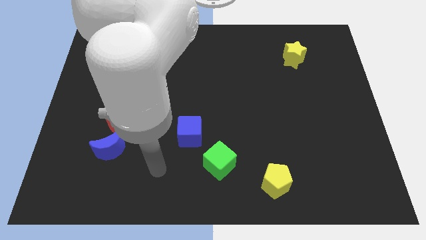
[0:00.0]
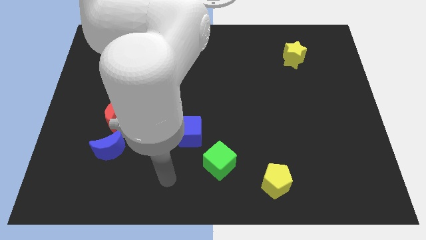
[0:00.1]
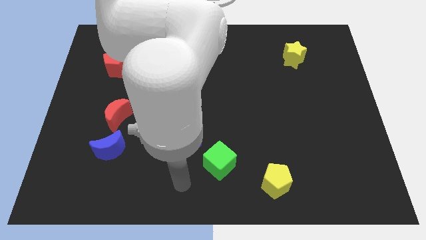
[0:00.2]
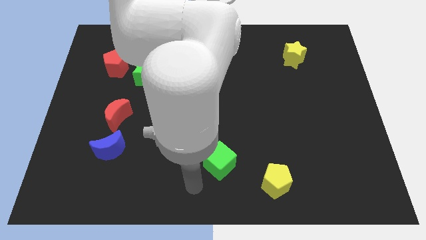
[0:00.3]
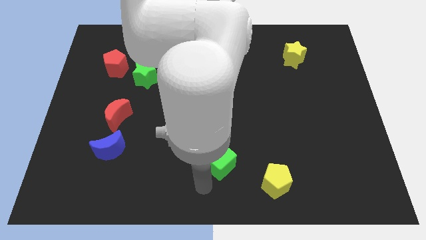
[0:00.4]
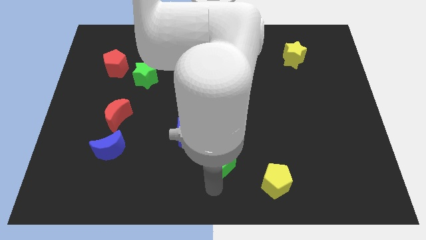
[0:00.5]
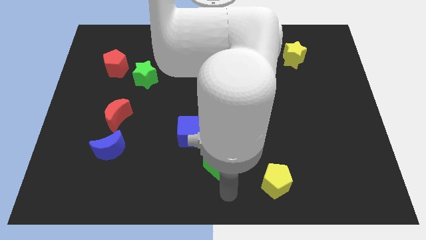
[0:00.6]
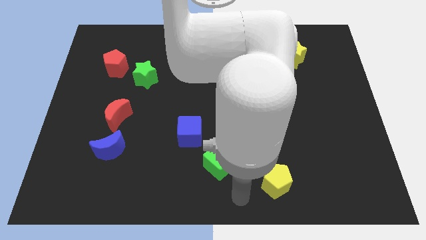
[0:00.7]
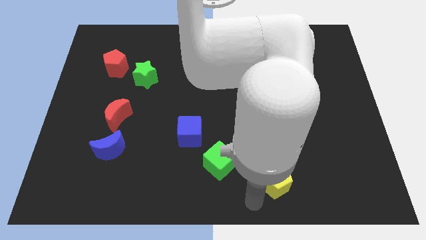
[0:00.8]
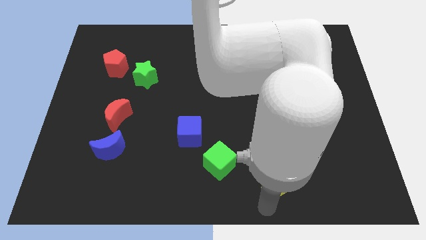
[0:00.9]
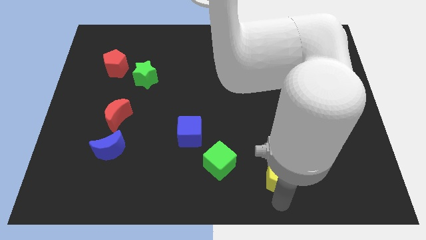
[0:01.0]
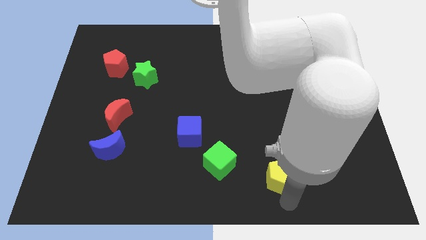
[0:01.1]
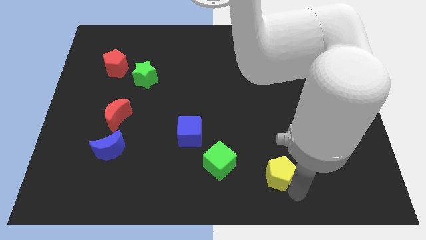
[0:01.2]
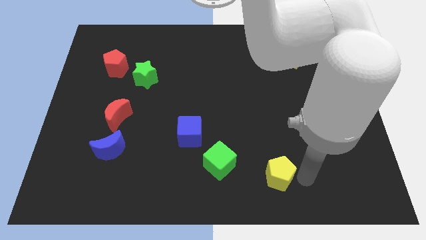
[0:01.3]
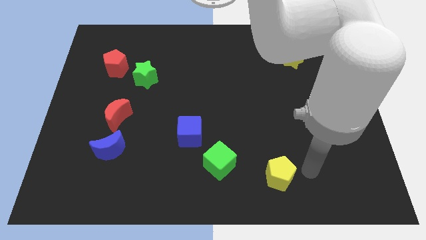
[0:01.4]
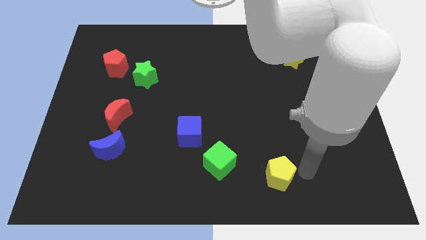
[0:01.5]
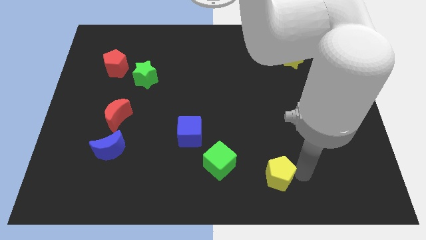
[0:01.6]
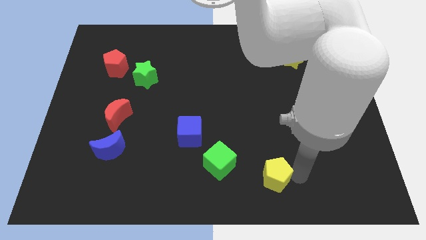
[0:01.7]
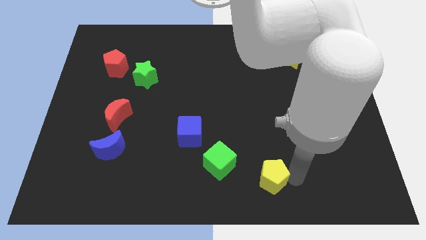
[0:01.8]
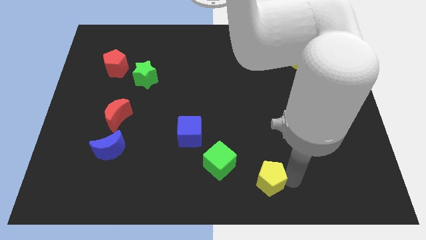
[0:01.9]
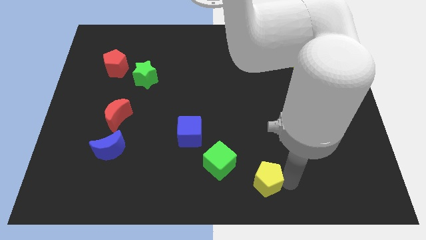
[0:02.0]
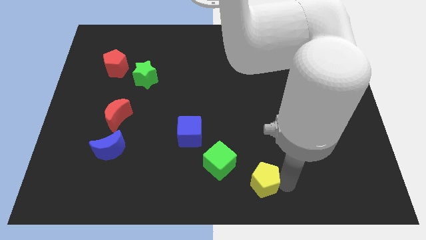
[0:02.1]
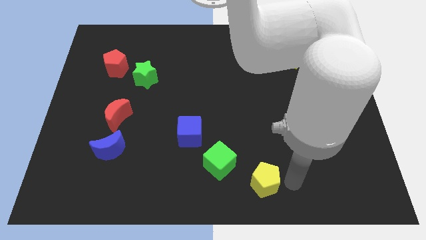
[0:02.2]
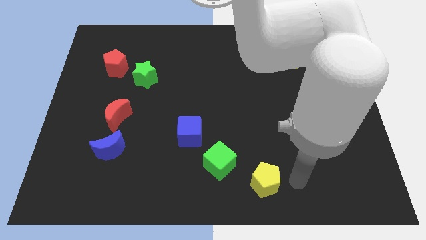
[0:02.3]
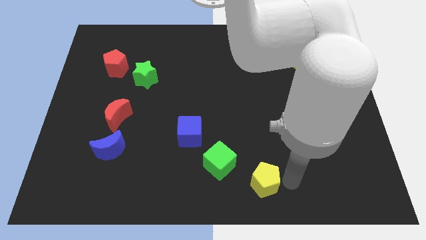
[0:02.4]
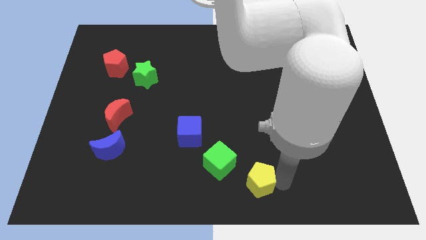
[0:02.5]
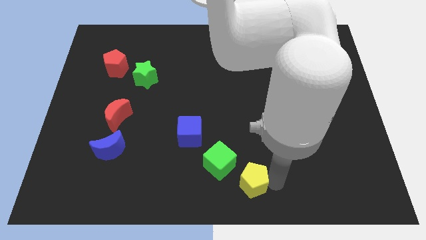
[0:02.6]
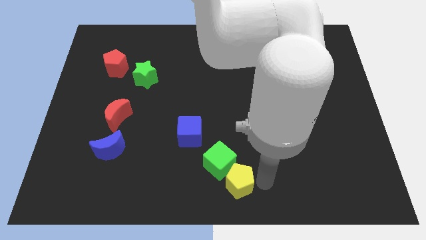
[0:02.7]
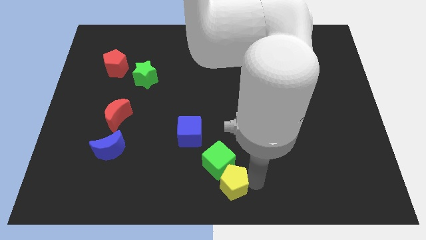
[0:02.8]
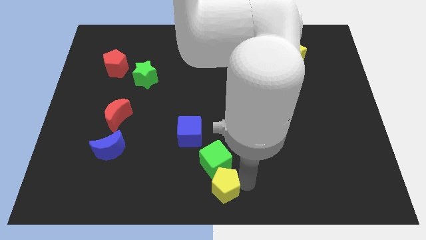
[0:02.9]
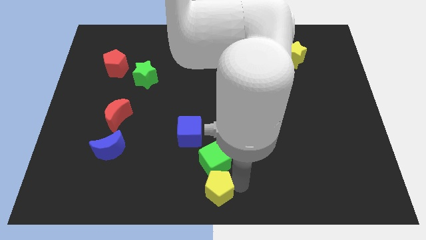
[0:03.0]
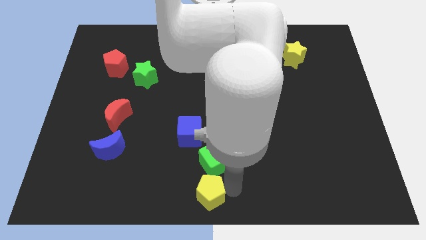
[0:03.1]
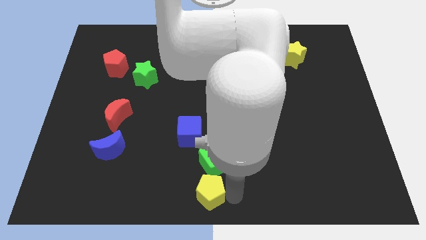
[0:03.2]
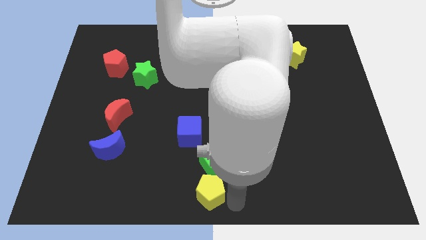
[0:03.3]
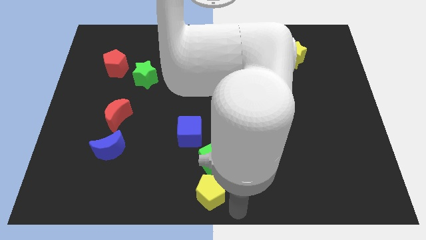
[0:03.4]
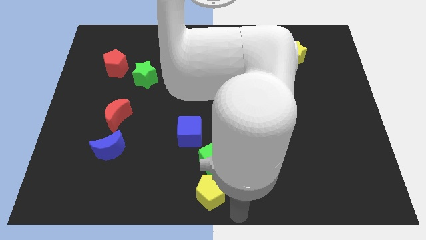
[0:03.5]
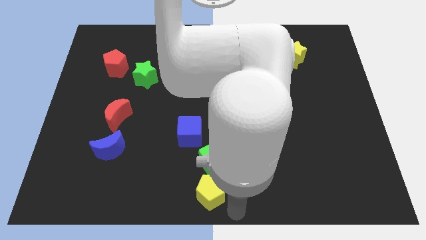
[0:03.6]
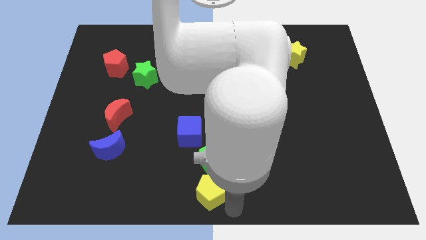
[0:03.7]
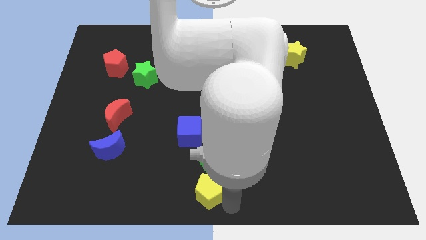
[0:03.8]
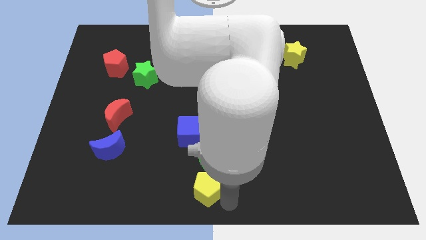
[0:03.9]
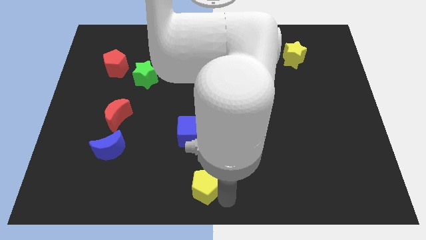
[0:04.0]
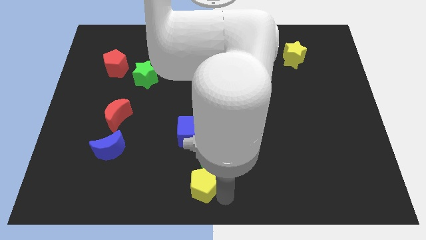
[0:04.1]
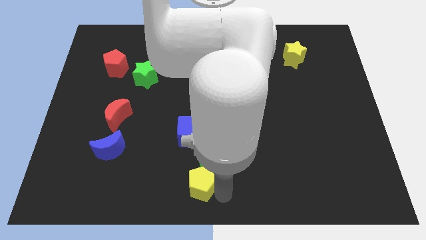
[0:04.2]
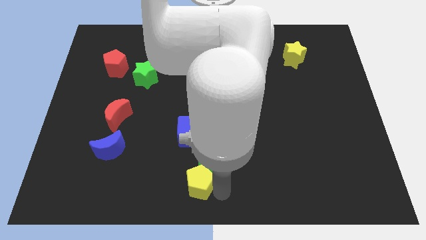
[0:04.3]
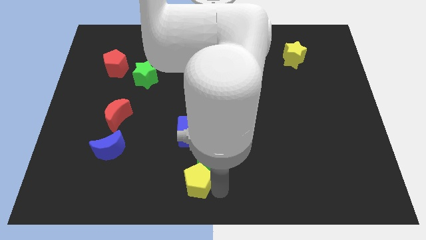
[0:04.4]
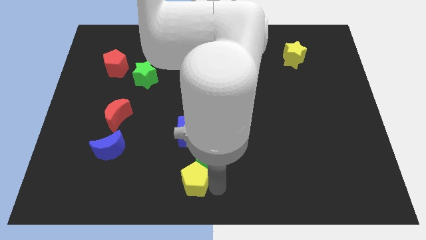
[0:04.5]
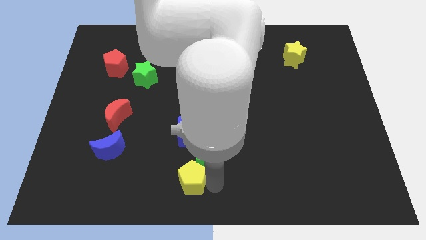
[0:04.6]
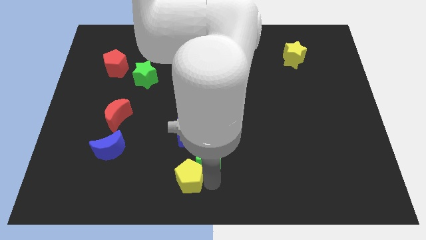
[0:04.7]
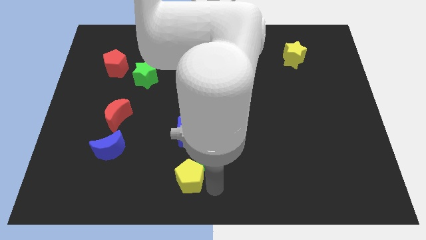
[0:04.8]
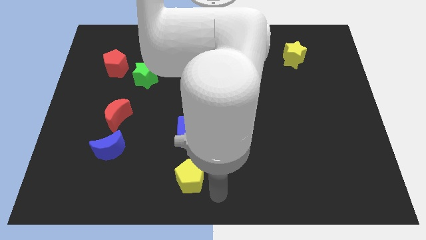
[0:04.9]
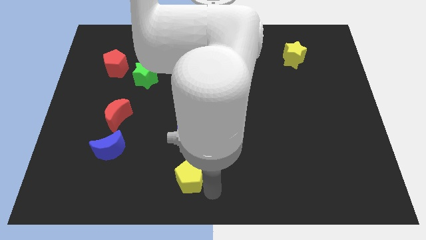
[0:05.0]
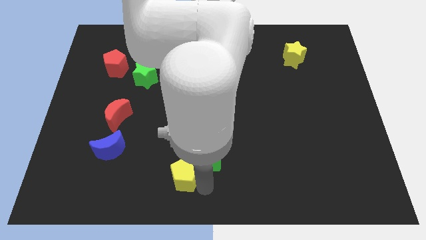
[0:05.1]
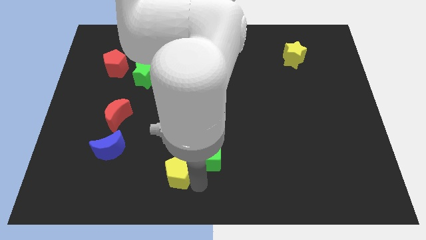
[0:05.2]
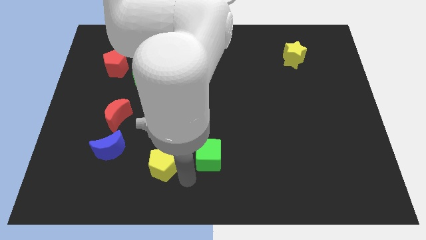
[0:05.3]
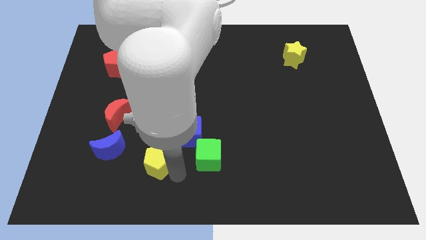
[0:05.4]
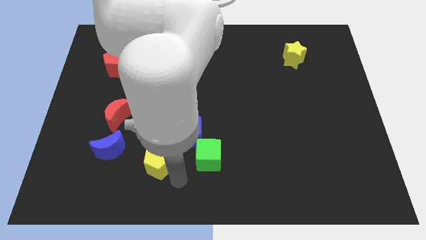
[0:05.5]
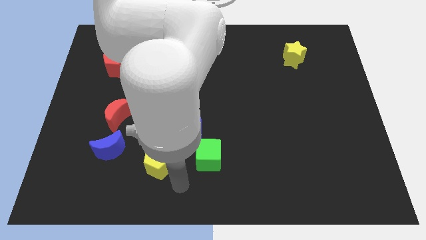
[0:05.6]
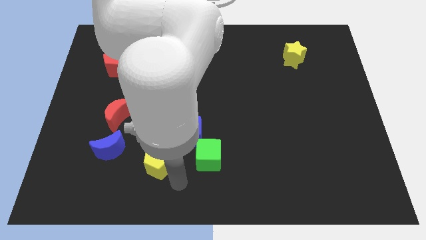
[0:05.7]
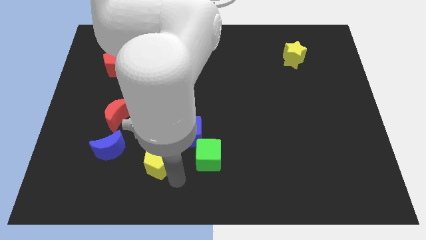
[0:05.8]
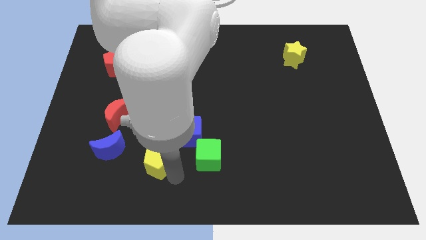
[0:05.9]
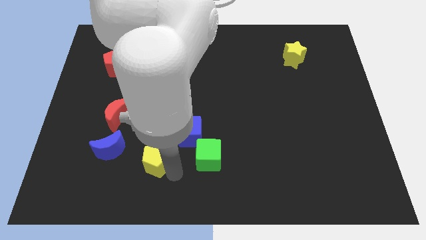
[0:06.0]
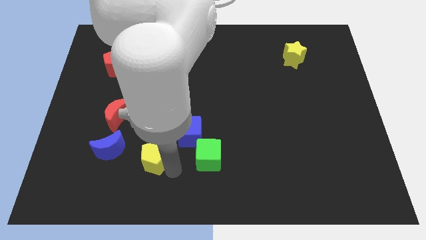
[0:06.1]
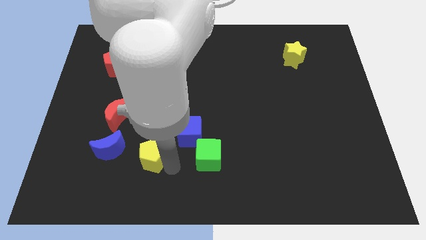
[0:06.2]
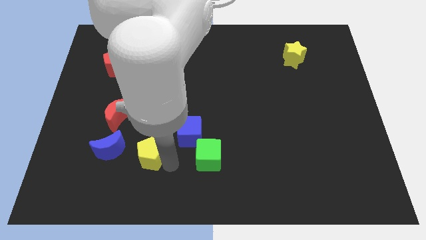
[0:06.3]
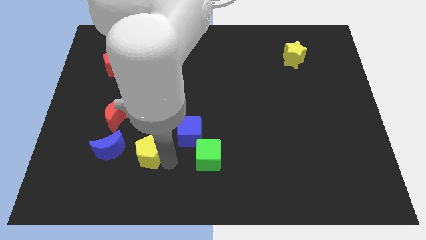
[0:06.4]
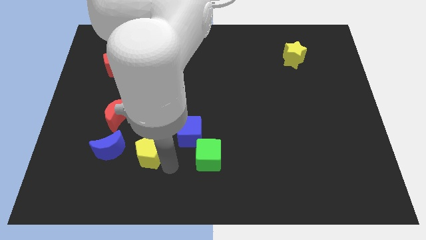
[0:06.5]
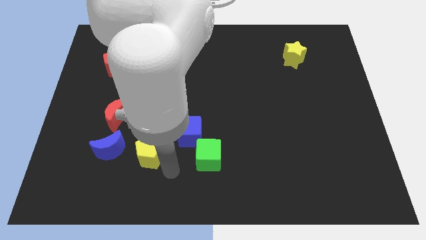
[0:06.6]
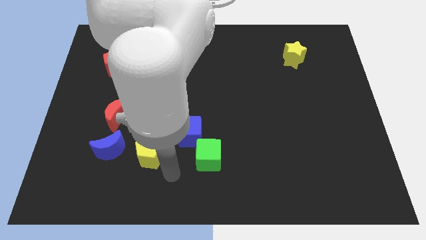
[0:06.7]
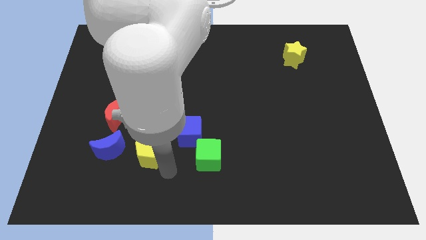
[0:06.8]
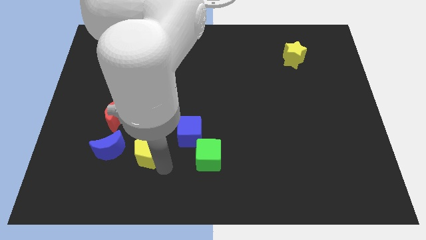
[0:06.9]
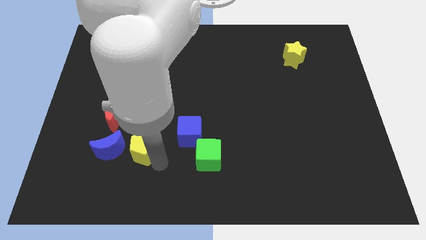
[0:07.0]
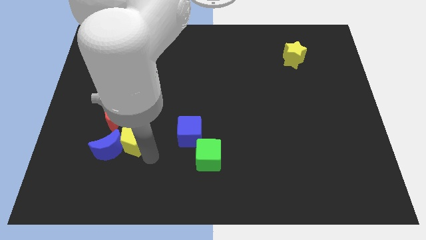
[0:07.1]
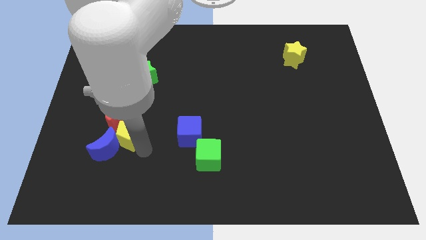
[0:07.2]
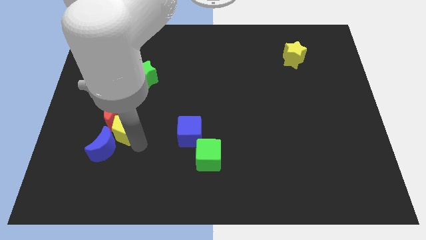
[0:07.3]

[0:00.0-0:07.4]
put the yellow pentagon to the red moon
